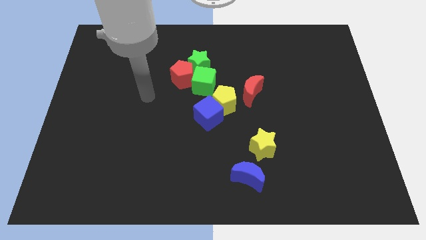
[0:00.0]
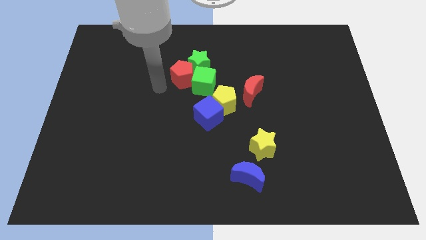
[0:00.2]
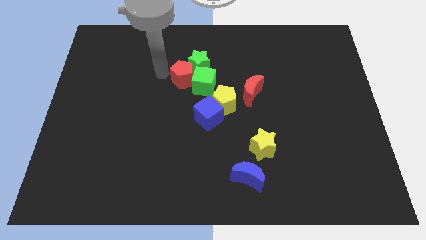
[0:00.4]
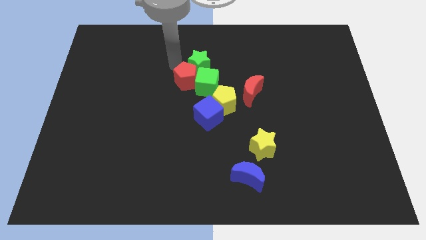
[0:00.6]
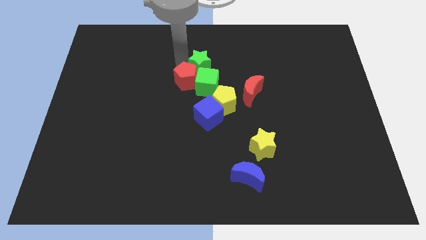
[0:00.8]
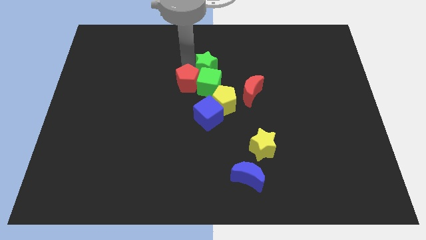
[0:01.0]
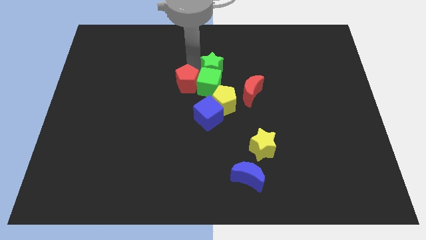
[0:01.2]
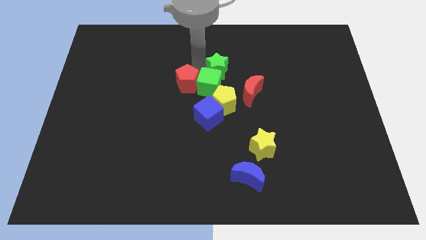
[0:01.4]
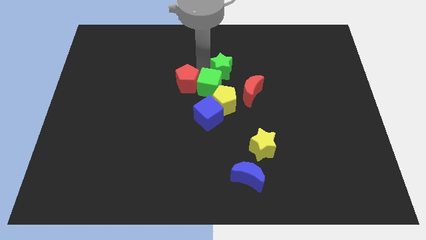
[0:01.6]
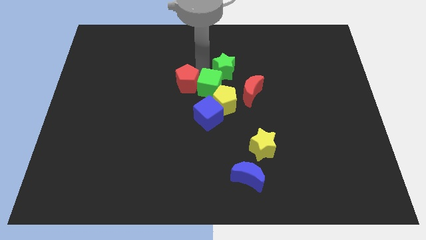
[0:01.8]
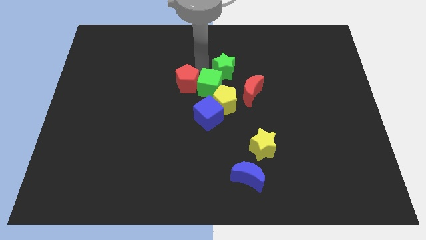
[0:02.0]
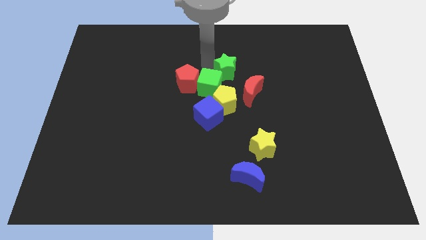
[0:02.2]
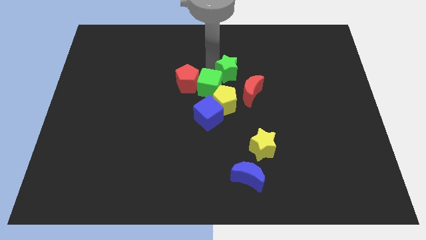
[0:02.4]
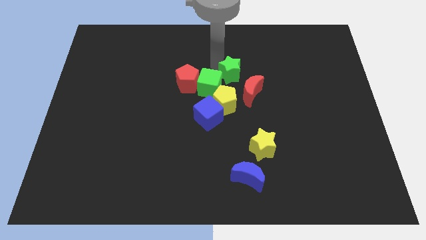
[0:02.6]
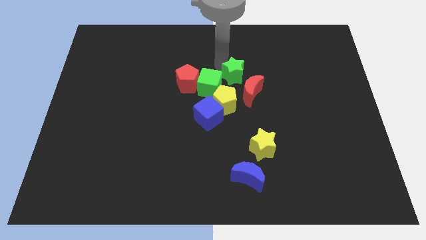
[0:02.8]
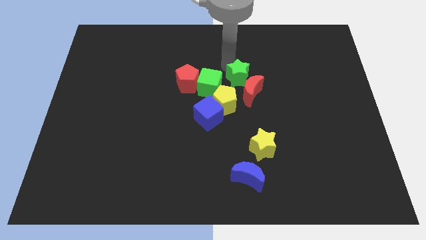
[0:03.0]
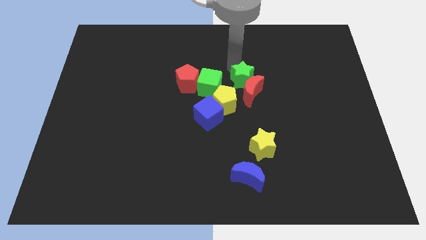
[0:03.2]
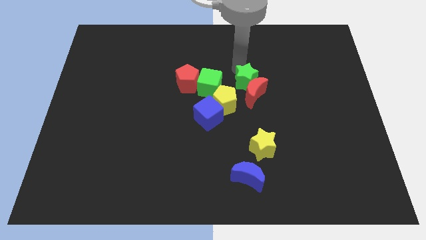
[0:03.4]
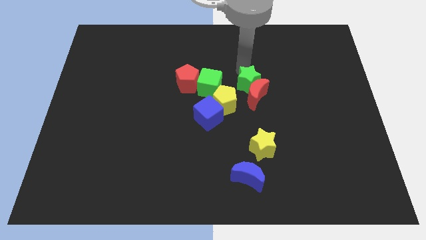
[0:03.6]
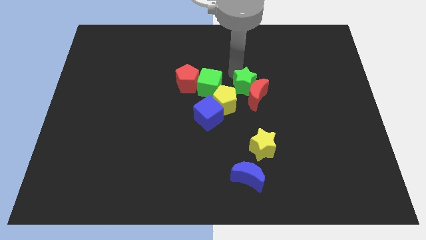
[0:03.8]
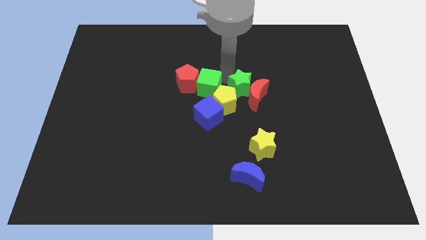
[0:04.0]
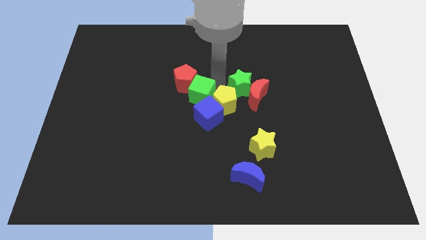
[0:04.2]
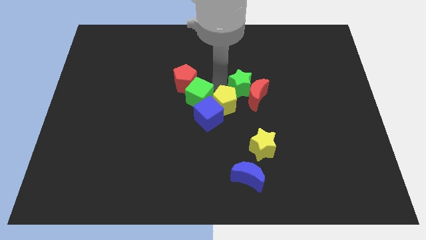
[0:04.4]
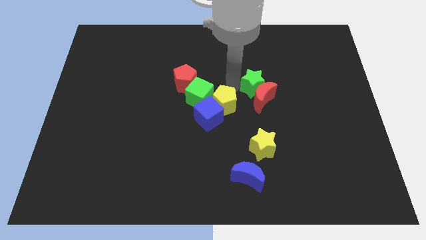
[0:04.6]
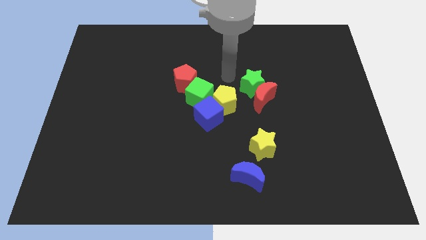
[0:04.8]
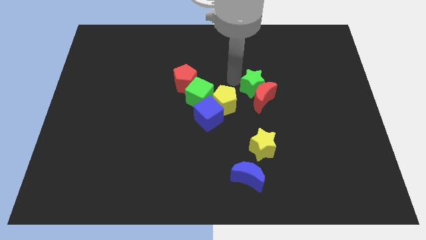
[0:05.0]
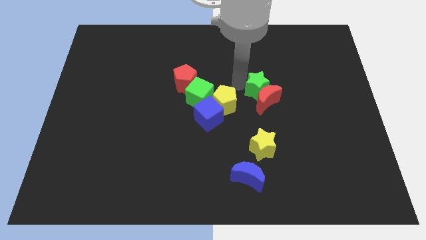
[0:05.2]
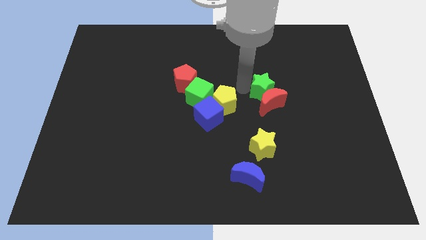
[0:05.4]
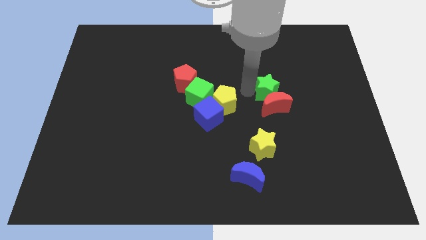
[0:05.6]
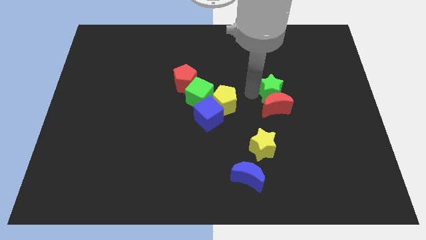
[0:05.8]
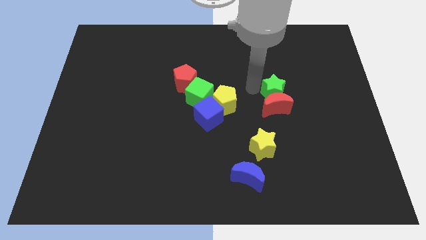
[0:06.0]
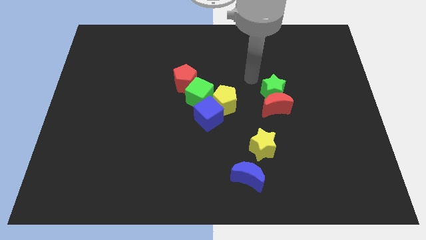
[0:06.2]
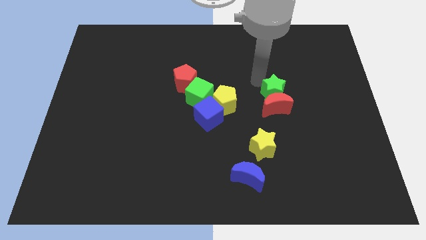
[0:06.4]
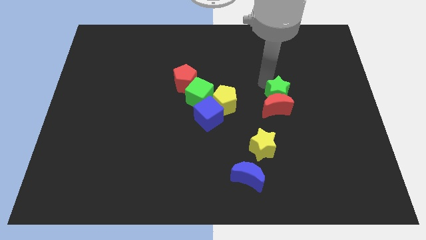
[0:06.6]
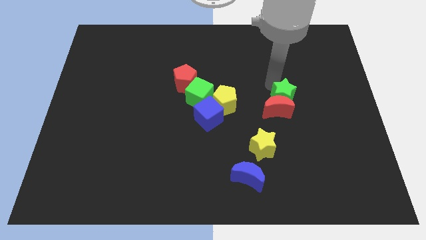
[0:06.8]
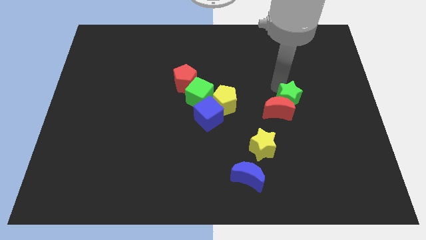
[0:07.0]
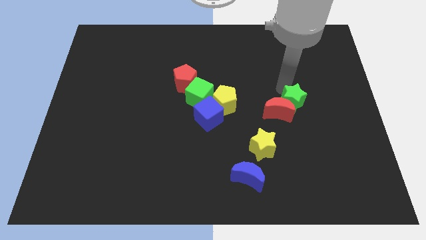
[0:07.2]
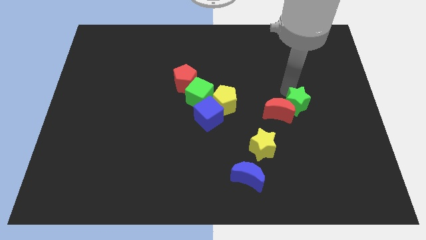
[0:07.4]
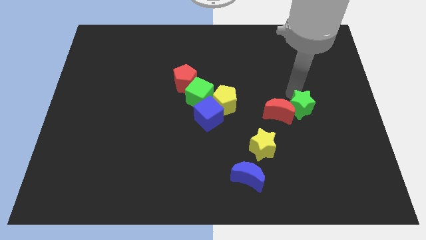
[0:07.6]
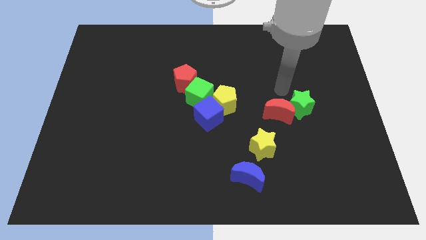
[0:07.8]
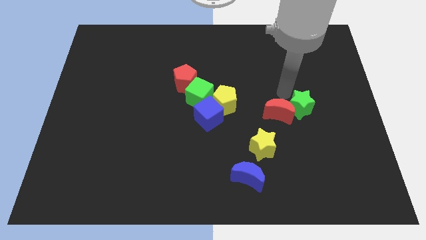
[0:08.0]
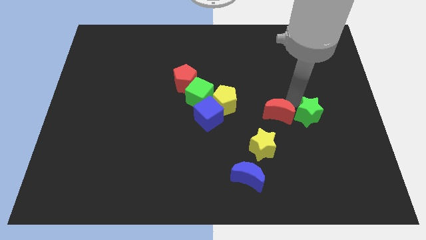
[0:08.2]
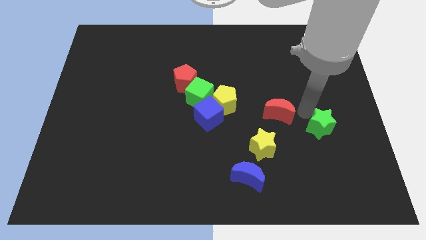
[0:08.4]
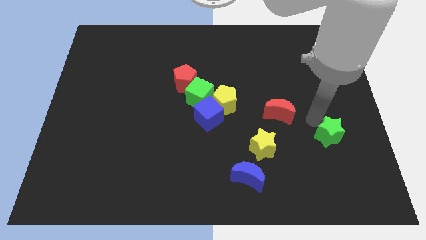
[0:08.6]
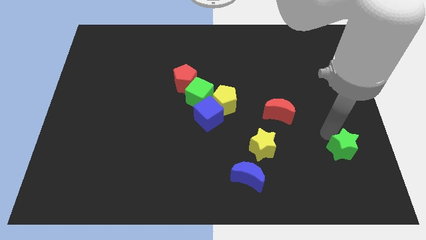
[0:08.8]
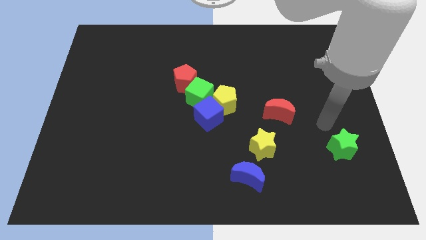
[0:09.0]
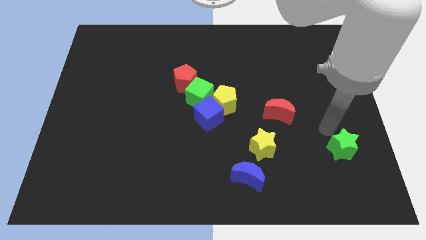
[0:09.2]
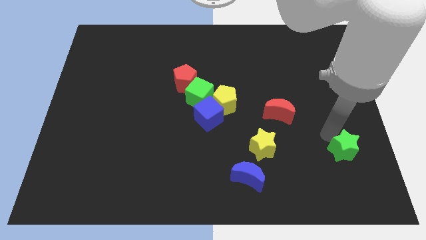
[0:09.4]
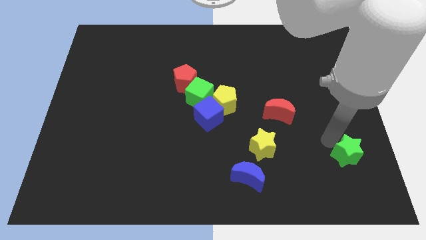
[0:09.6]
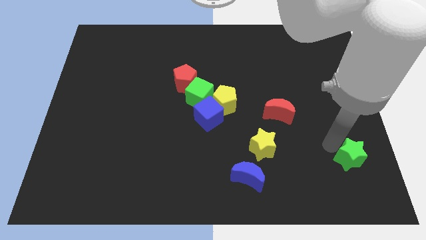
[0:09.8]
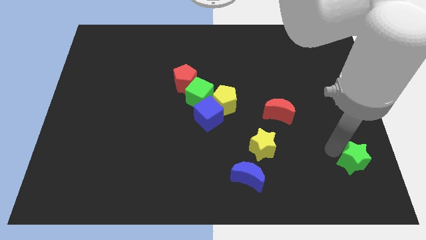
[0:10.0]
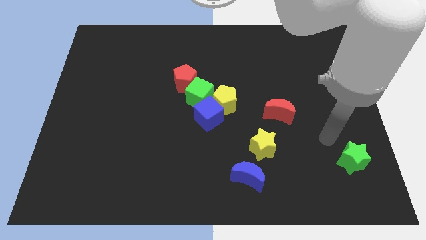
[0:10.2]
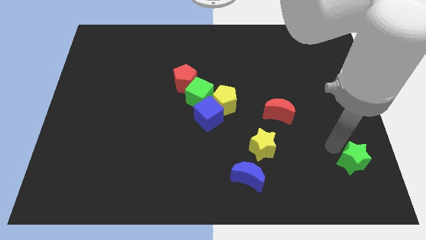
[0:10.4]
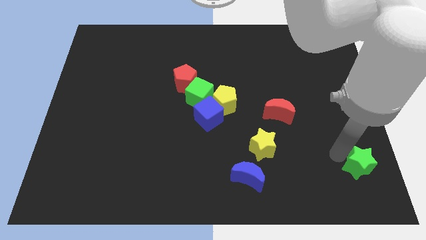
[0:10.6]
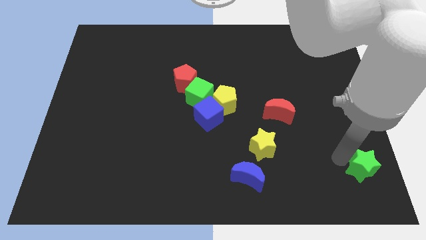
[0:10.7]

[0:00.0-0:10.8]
push the green star to the bottom right

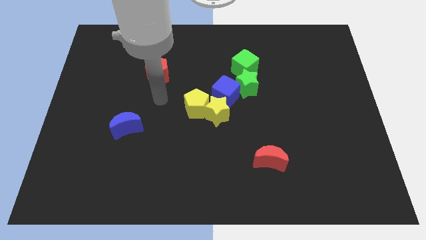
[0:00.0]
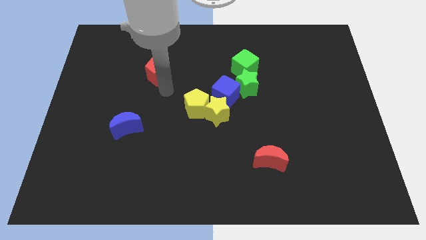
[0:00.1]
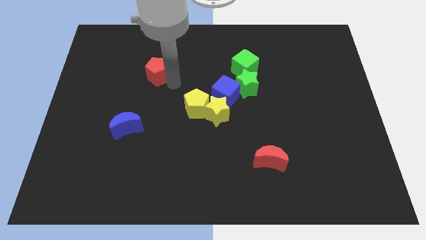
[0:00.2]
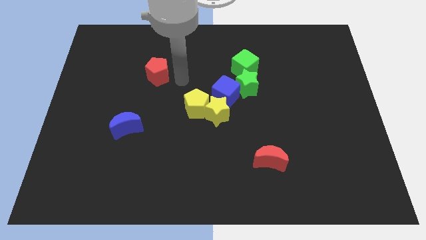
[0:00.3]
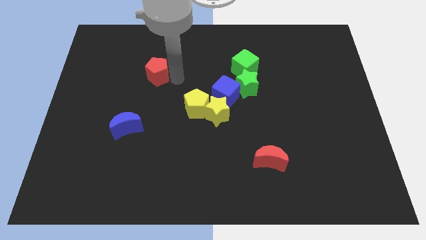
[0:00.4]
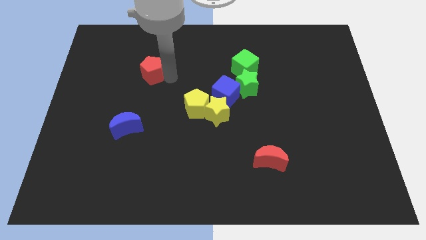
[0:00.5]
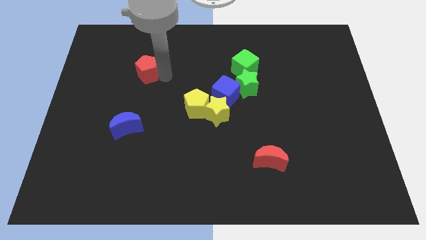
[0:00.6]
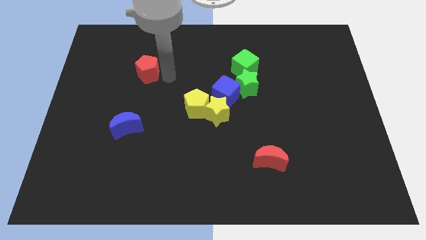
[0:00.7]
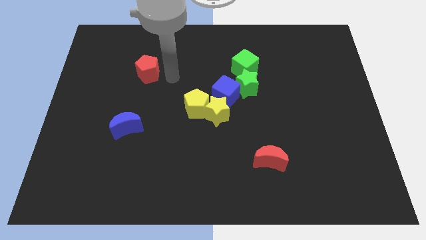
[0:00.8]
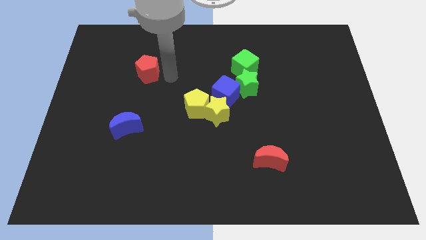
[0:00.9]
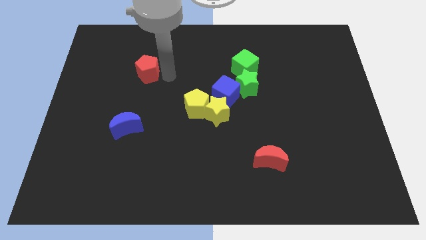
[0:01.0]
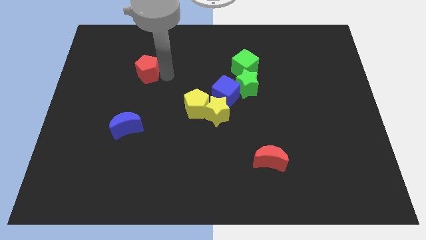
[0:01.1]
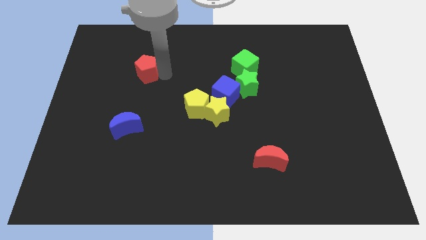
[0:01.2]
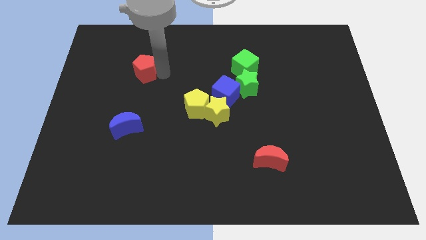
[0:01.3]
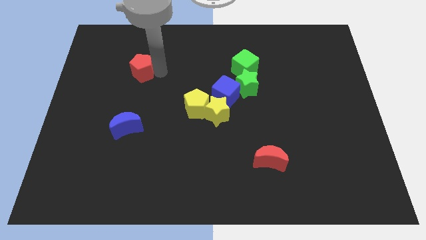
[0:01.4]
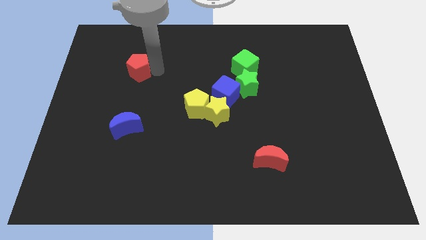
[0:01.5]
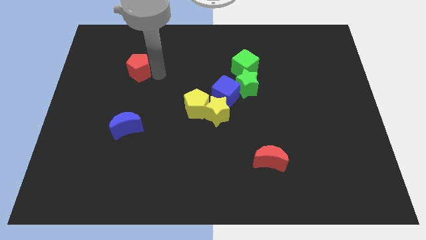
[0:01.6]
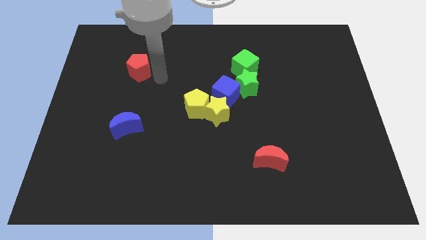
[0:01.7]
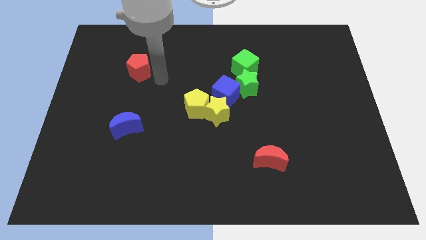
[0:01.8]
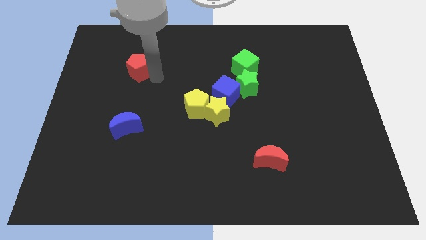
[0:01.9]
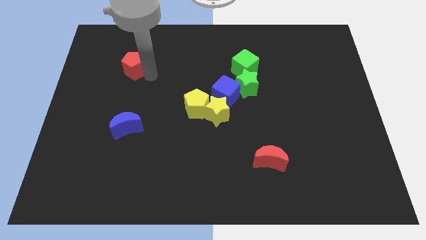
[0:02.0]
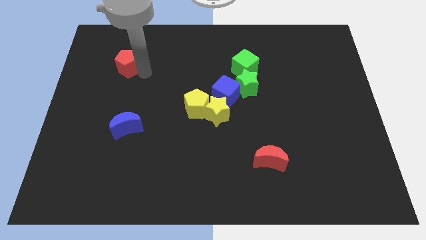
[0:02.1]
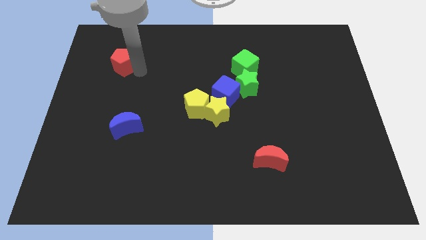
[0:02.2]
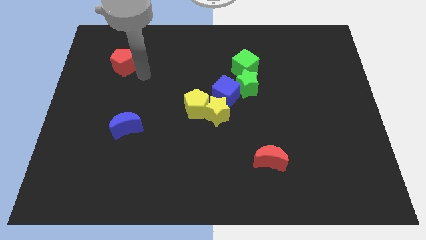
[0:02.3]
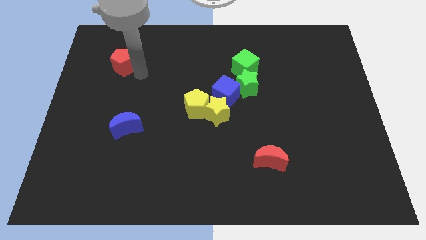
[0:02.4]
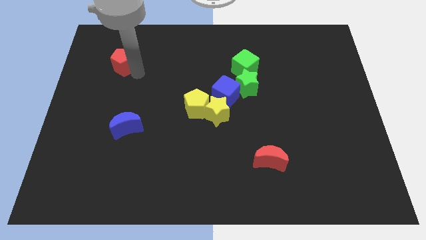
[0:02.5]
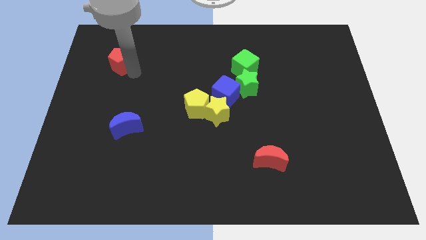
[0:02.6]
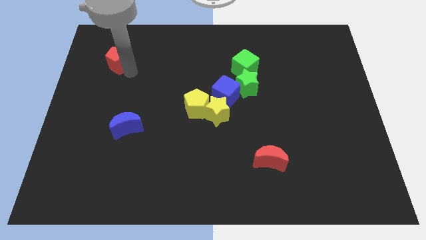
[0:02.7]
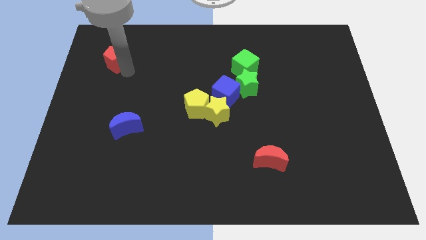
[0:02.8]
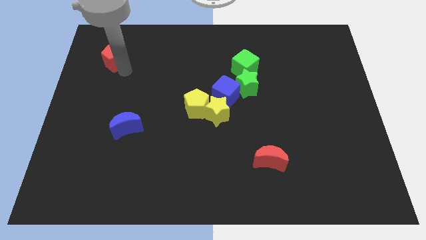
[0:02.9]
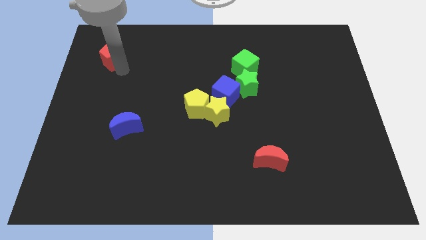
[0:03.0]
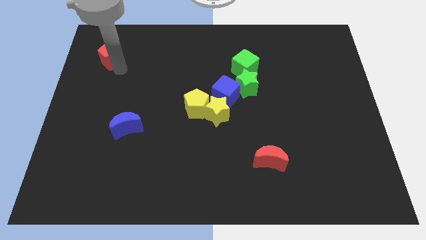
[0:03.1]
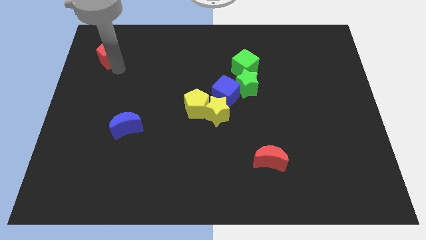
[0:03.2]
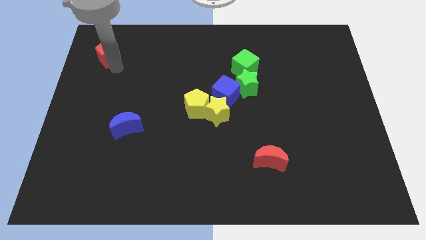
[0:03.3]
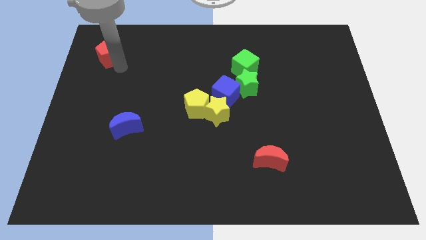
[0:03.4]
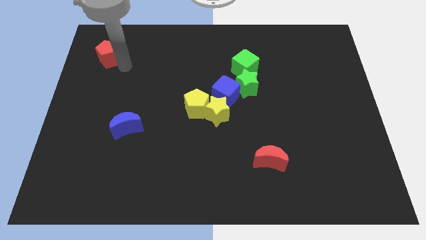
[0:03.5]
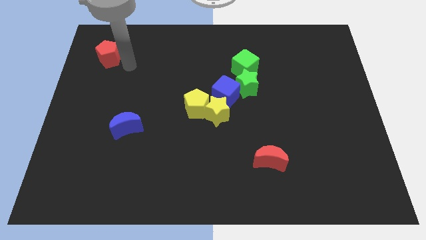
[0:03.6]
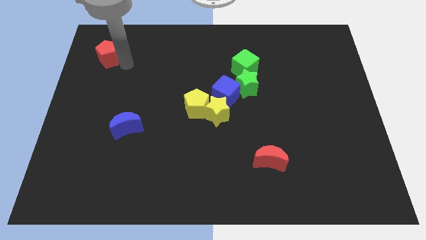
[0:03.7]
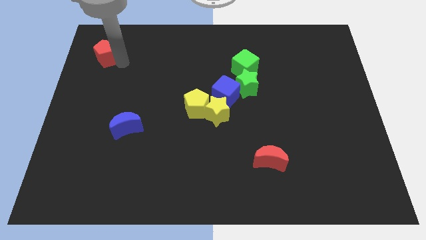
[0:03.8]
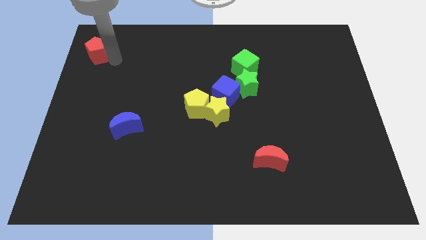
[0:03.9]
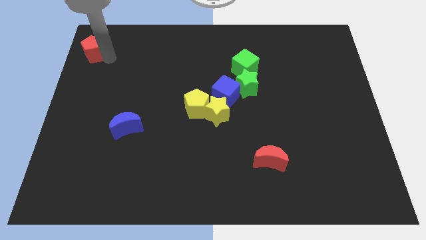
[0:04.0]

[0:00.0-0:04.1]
put the red pentagon to the top left of the board
